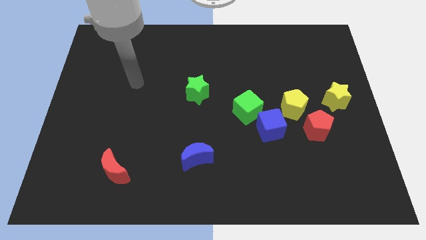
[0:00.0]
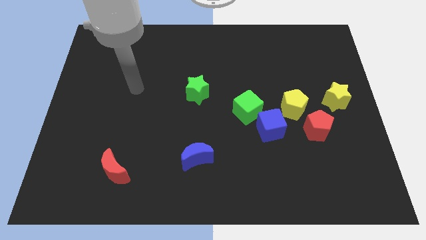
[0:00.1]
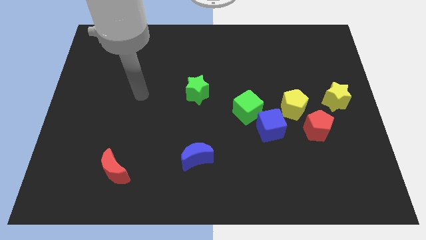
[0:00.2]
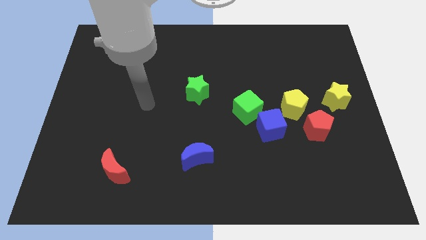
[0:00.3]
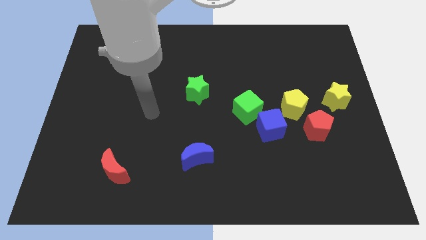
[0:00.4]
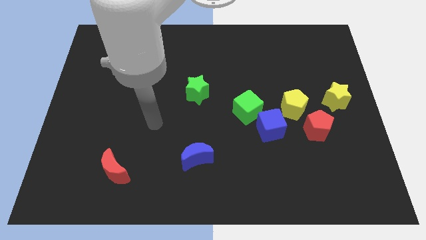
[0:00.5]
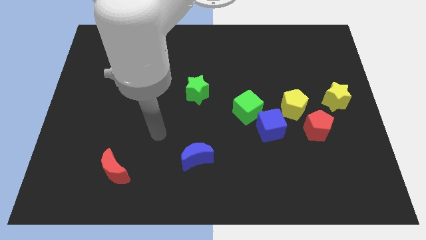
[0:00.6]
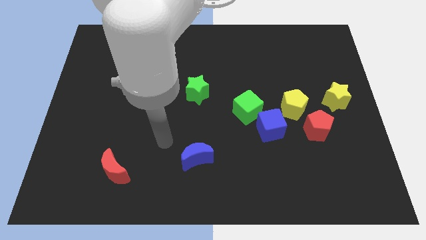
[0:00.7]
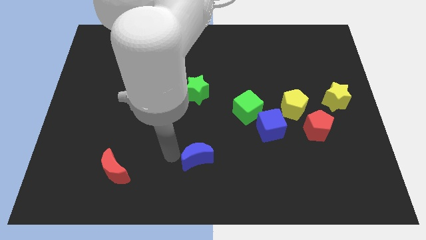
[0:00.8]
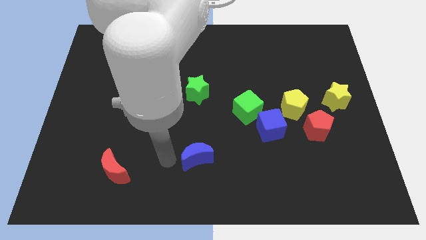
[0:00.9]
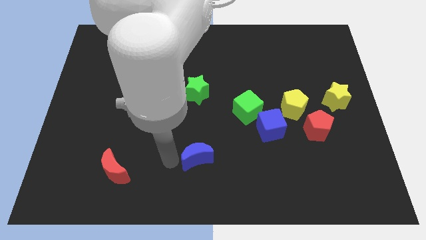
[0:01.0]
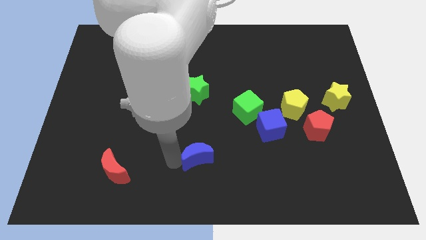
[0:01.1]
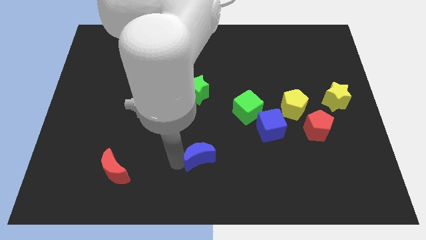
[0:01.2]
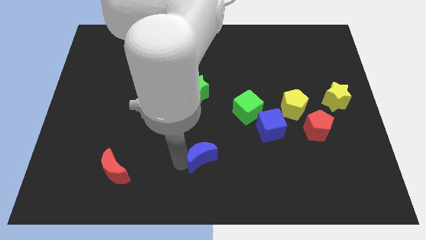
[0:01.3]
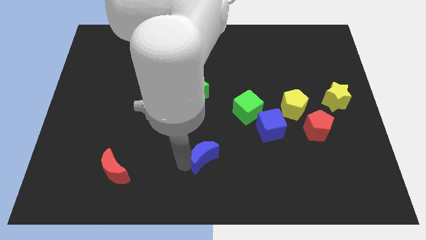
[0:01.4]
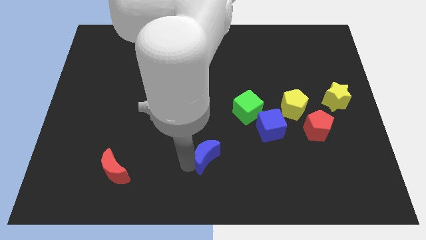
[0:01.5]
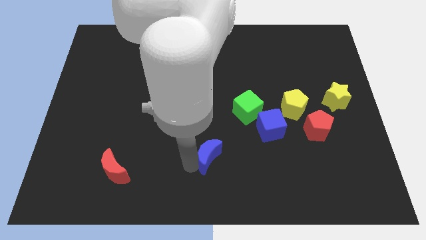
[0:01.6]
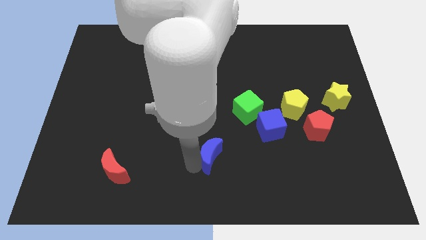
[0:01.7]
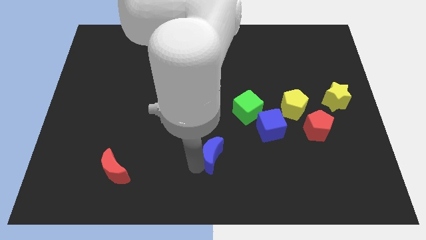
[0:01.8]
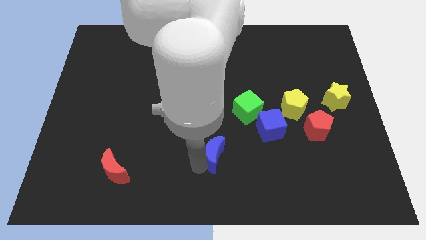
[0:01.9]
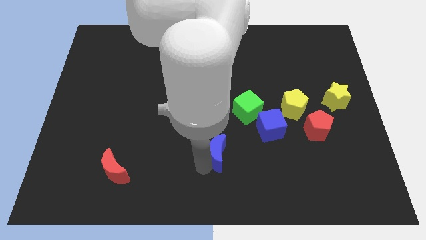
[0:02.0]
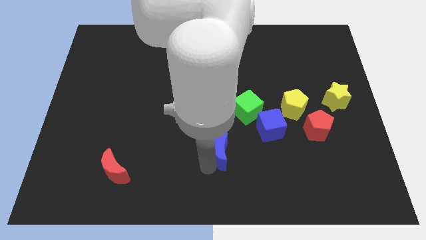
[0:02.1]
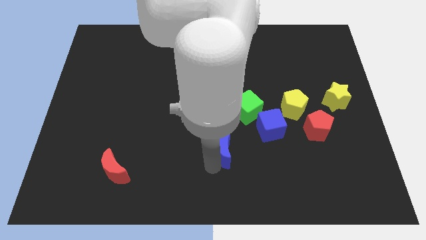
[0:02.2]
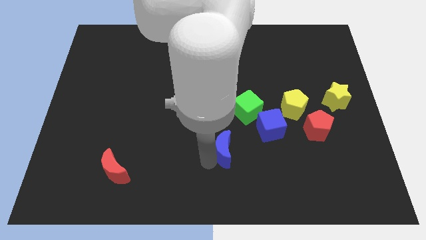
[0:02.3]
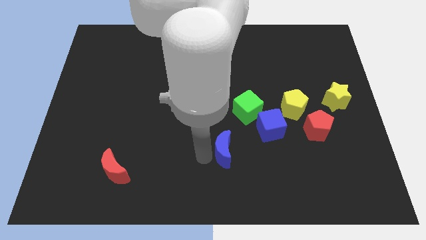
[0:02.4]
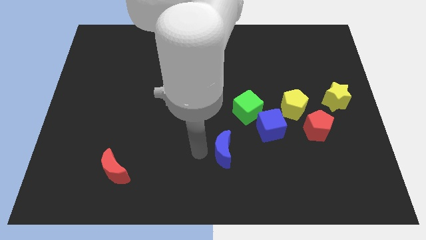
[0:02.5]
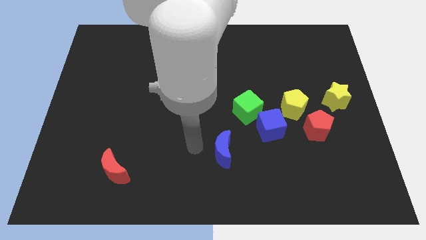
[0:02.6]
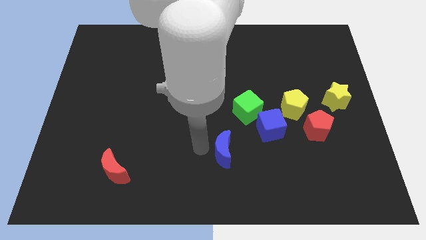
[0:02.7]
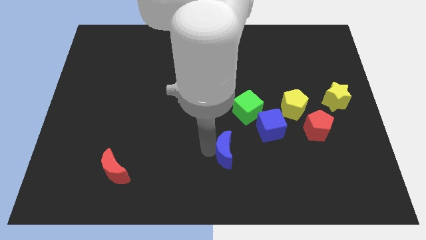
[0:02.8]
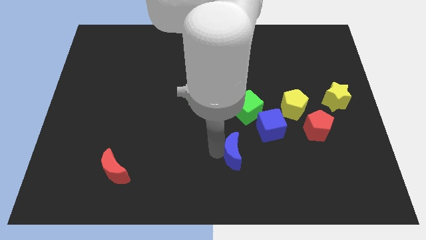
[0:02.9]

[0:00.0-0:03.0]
slightly push the blue moon right

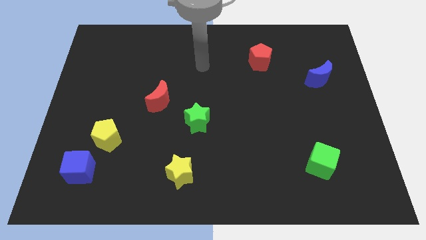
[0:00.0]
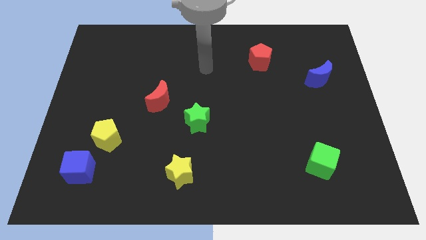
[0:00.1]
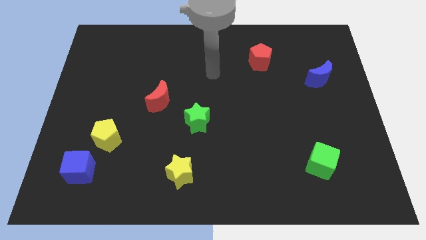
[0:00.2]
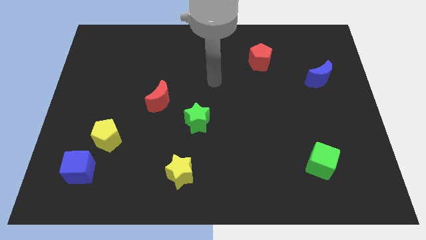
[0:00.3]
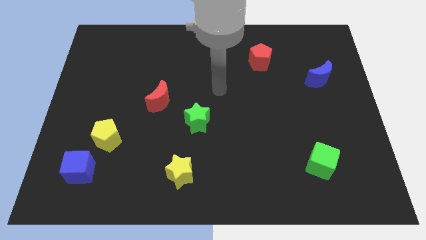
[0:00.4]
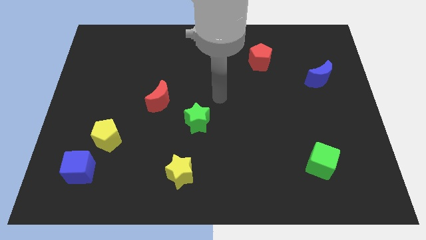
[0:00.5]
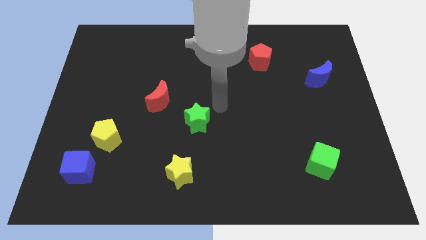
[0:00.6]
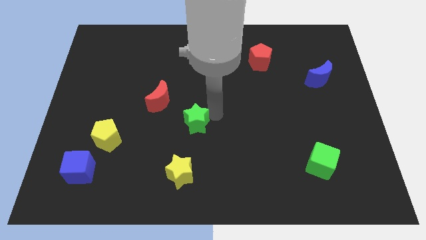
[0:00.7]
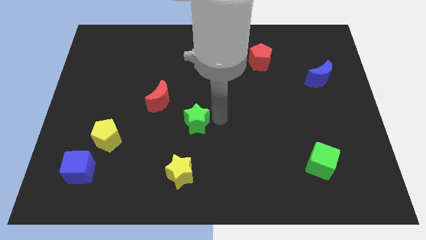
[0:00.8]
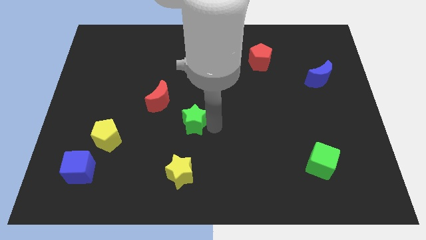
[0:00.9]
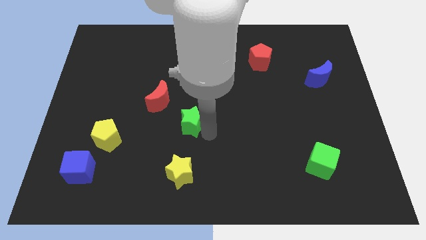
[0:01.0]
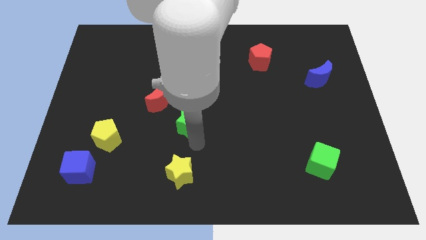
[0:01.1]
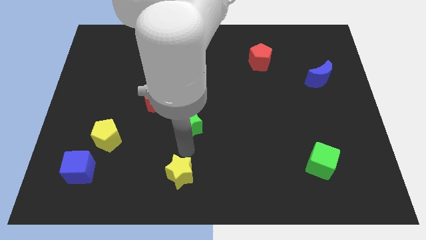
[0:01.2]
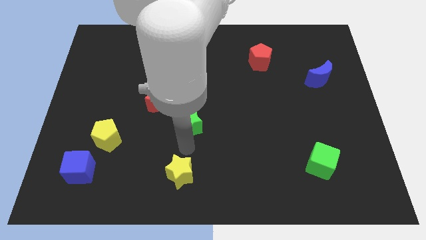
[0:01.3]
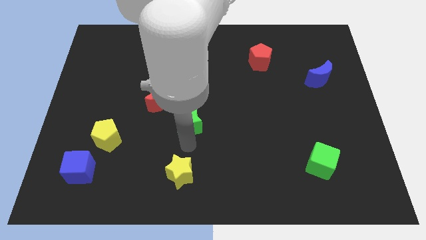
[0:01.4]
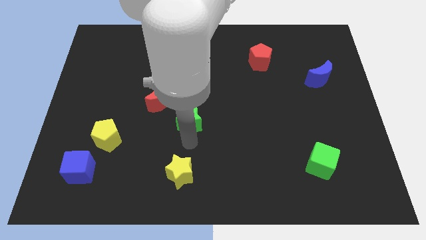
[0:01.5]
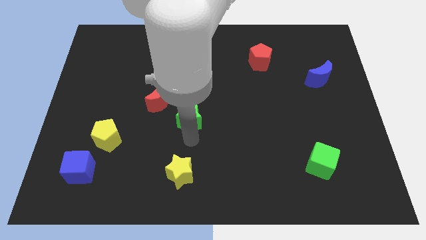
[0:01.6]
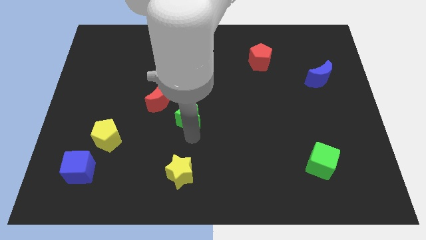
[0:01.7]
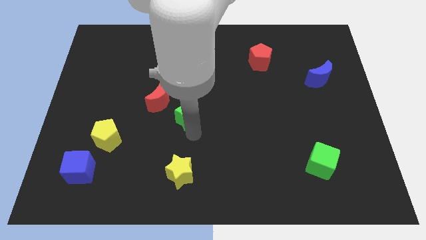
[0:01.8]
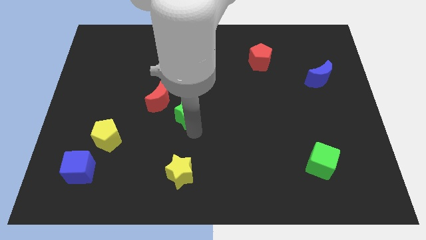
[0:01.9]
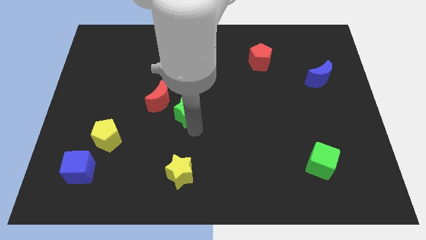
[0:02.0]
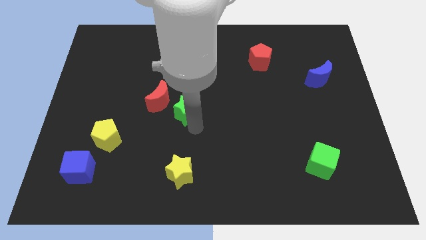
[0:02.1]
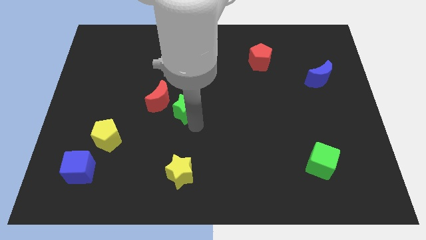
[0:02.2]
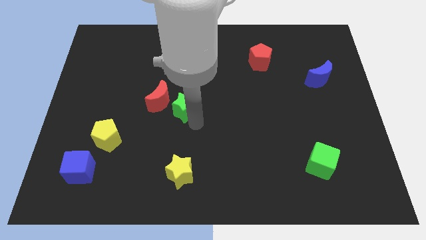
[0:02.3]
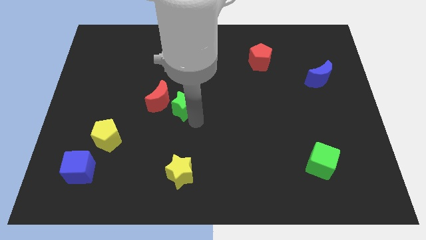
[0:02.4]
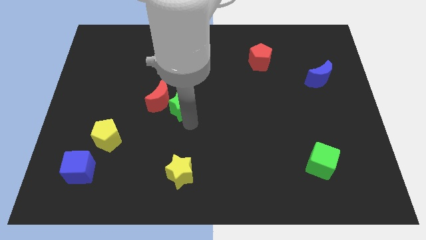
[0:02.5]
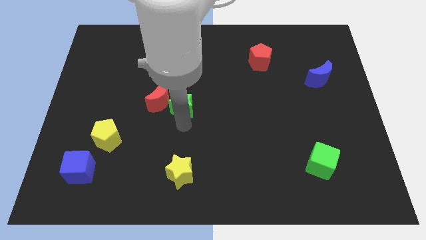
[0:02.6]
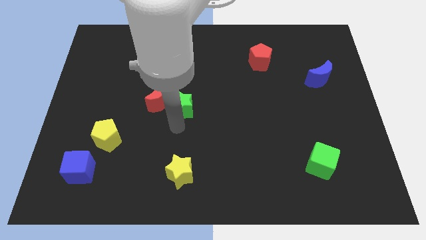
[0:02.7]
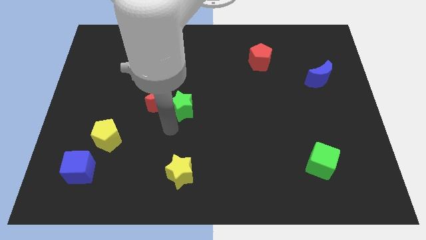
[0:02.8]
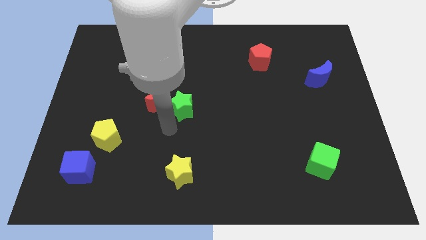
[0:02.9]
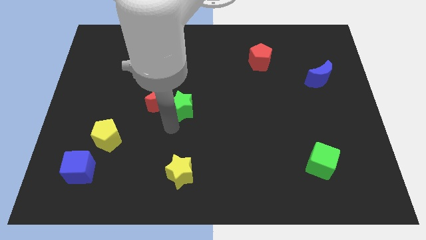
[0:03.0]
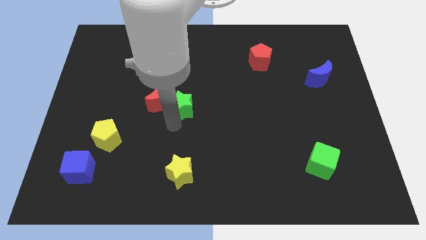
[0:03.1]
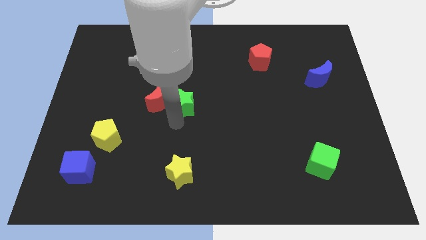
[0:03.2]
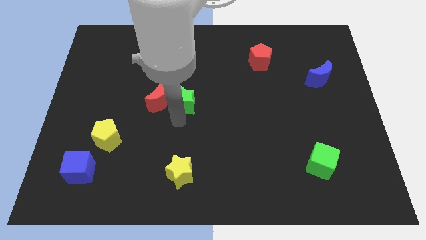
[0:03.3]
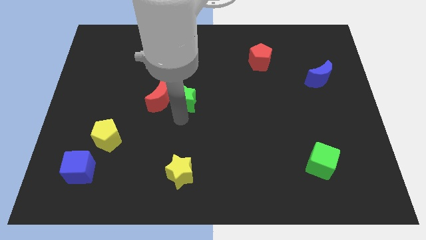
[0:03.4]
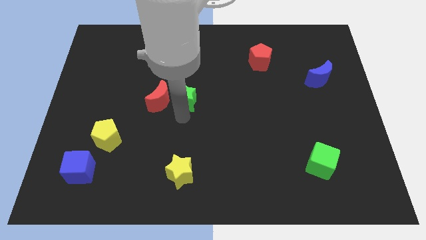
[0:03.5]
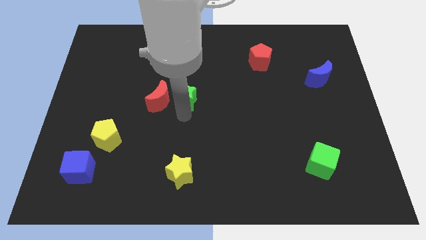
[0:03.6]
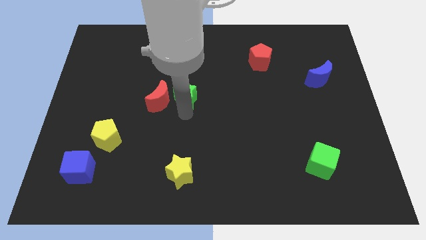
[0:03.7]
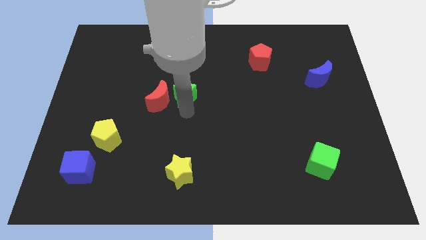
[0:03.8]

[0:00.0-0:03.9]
slightly move the green star upwards

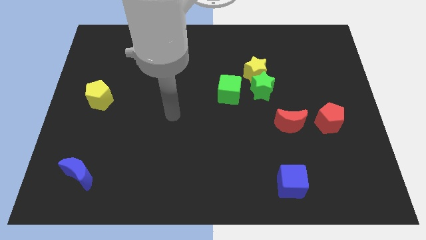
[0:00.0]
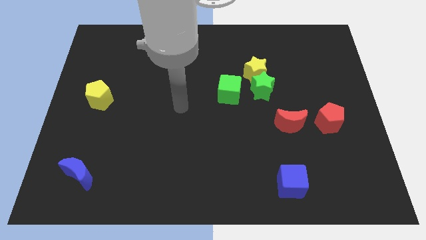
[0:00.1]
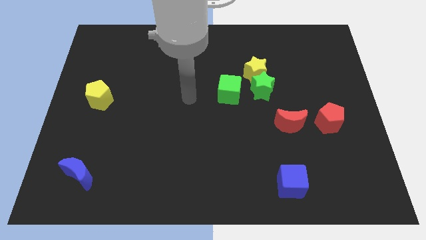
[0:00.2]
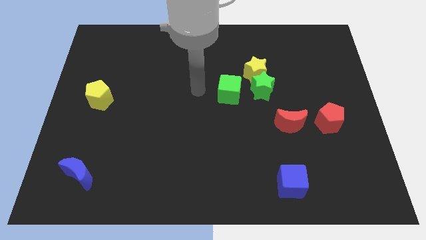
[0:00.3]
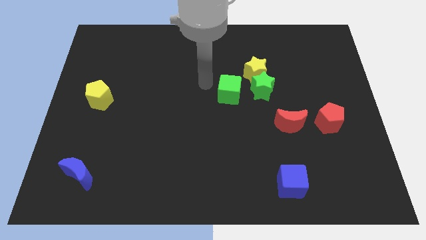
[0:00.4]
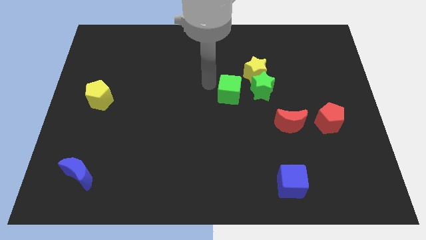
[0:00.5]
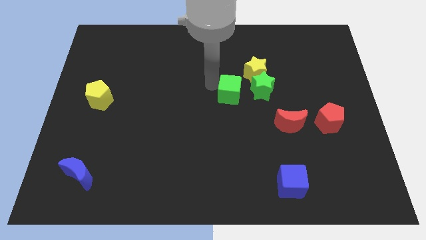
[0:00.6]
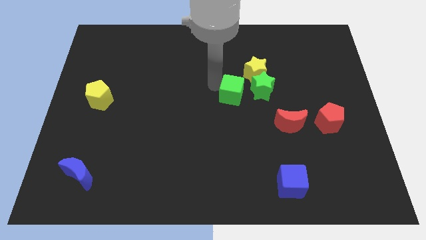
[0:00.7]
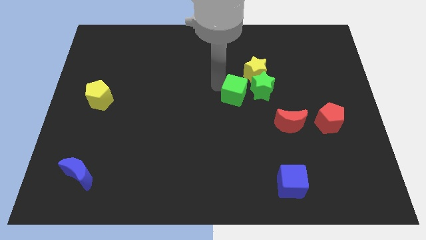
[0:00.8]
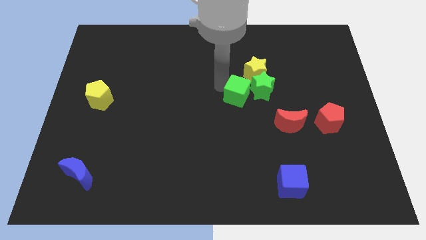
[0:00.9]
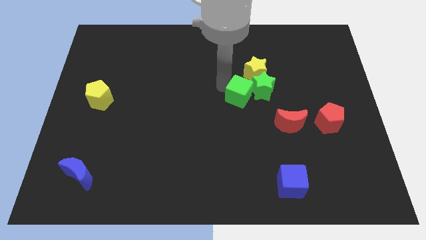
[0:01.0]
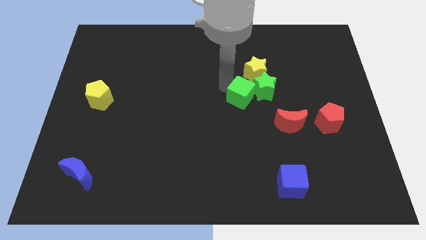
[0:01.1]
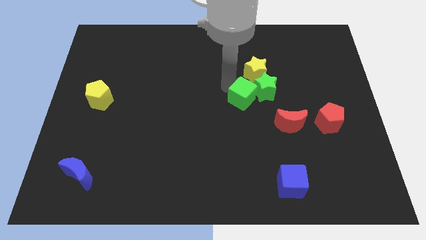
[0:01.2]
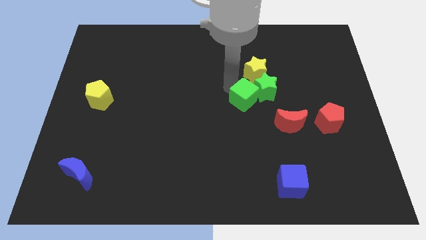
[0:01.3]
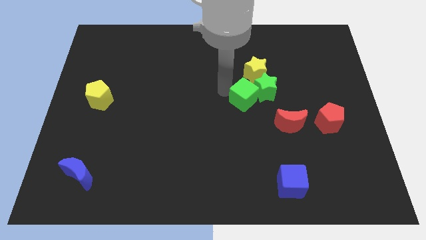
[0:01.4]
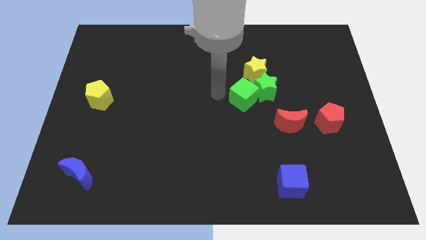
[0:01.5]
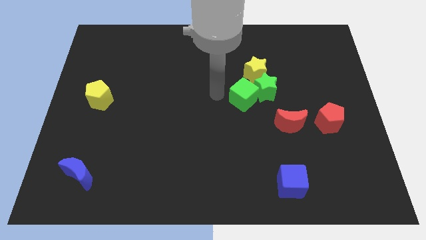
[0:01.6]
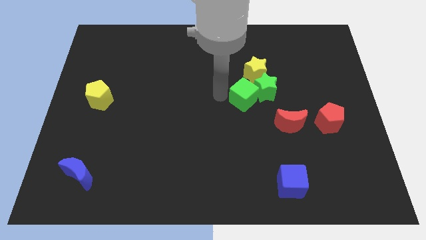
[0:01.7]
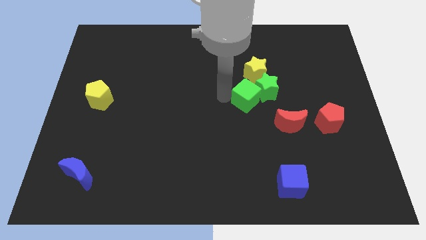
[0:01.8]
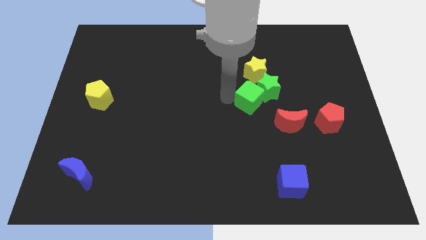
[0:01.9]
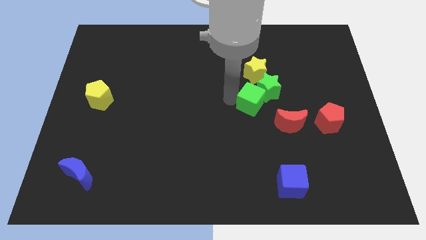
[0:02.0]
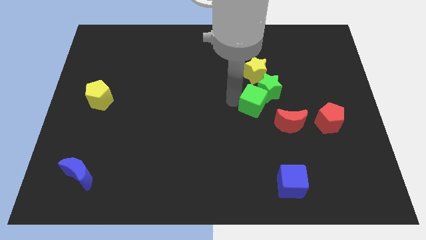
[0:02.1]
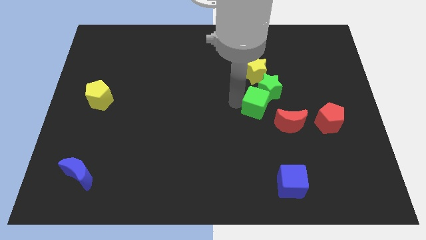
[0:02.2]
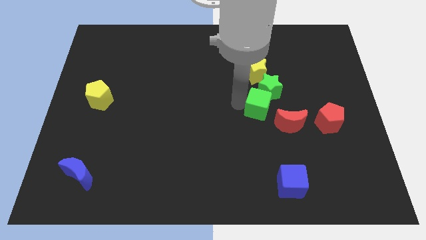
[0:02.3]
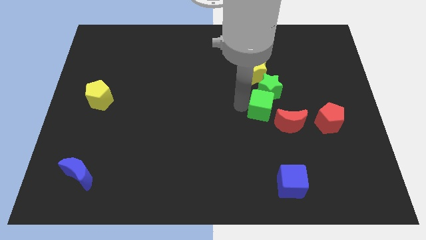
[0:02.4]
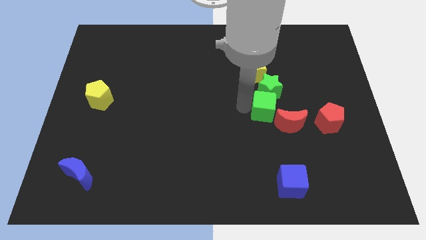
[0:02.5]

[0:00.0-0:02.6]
slide the green cube slightly to the right
